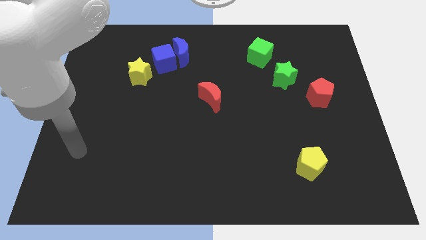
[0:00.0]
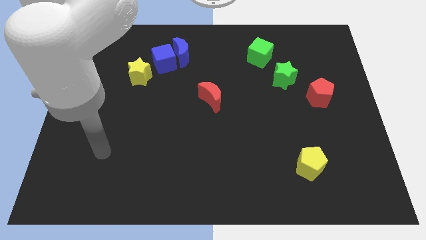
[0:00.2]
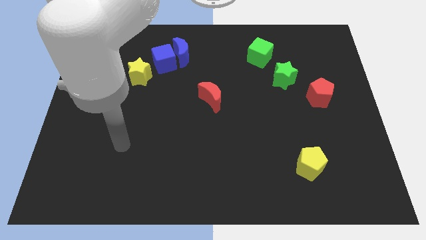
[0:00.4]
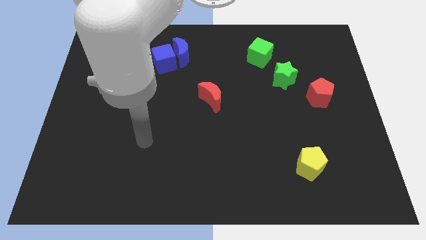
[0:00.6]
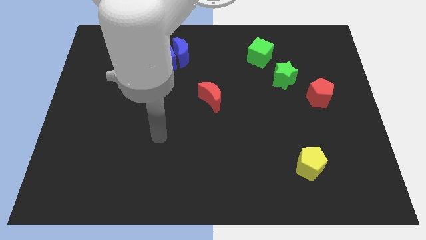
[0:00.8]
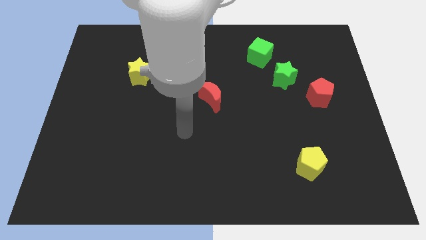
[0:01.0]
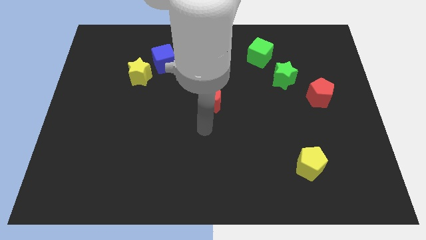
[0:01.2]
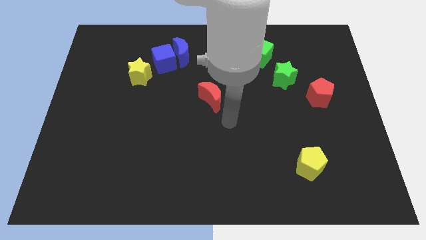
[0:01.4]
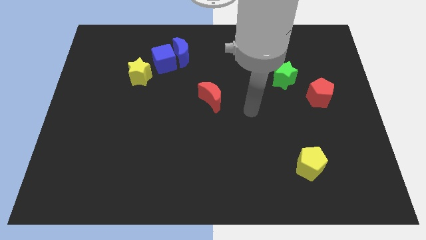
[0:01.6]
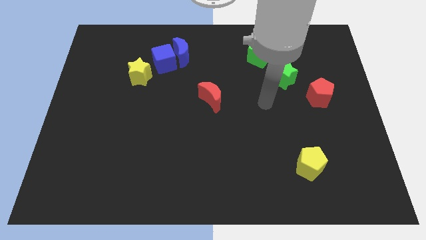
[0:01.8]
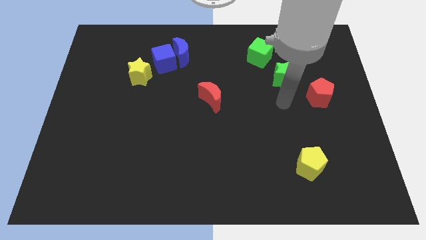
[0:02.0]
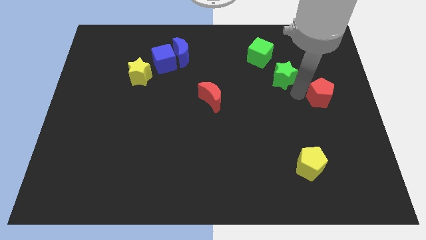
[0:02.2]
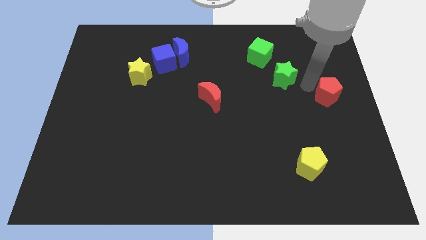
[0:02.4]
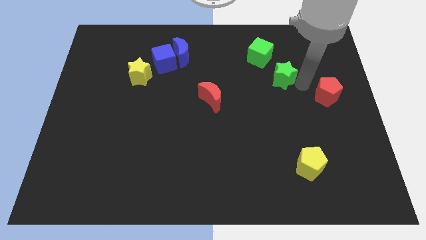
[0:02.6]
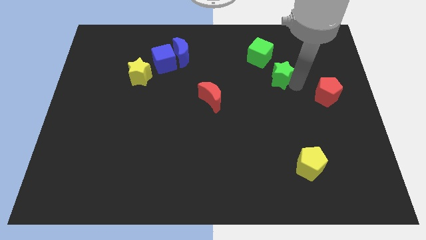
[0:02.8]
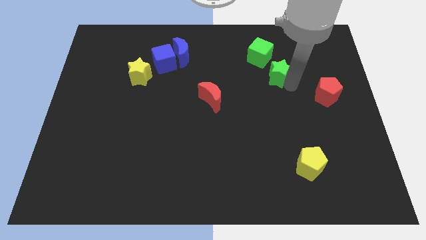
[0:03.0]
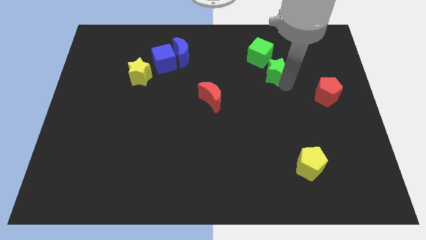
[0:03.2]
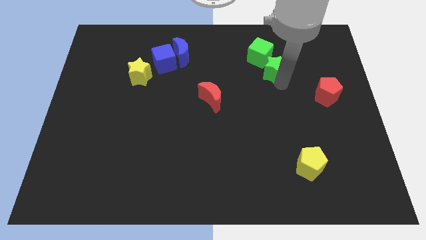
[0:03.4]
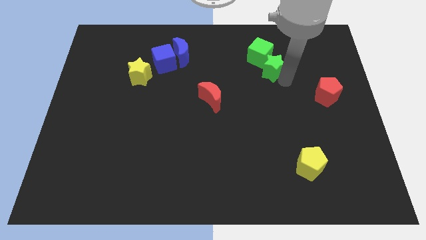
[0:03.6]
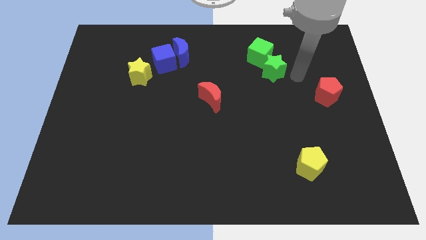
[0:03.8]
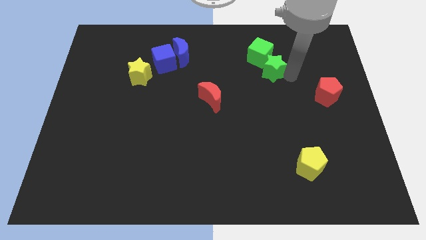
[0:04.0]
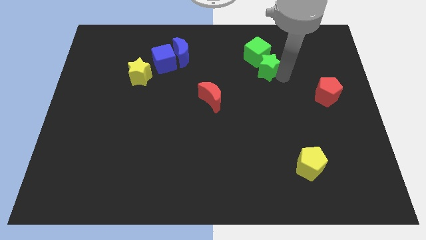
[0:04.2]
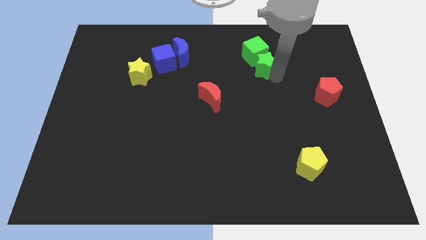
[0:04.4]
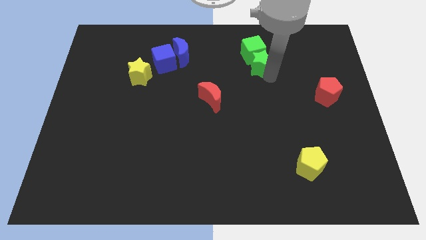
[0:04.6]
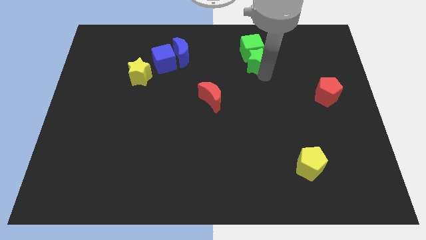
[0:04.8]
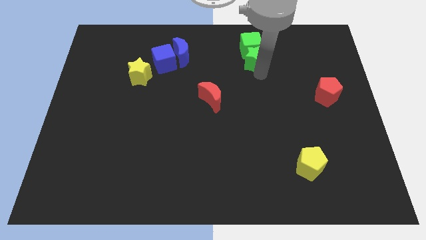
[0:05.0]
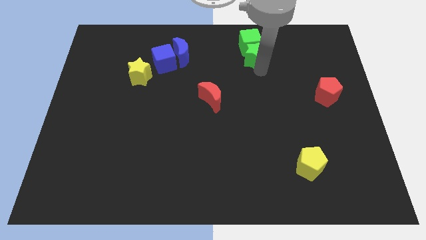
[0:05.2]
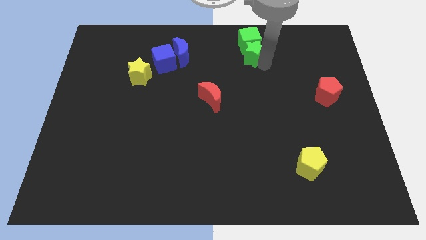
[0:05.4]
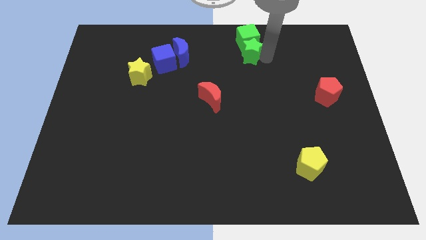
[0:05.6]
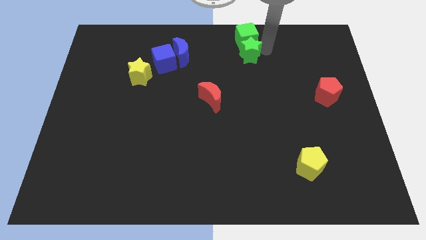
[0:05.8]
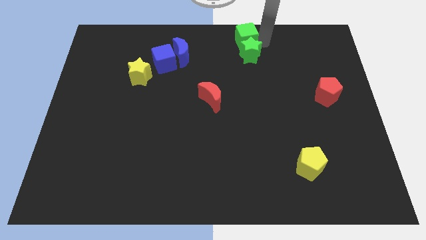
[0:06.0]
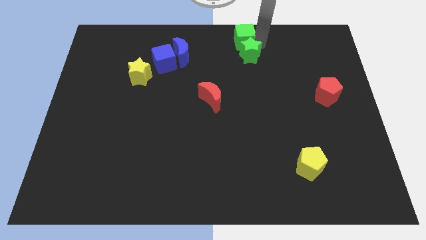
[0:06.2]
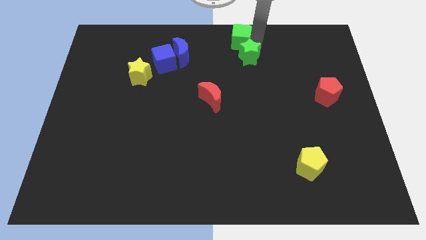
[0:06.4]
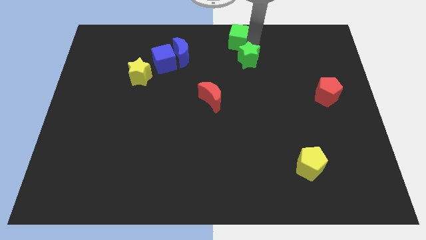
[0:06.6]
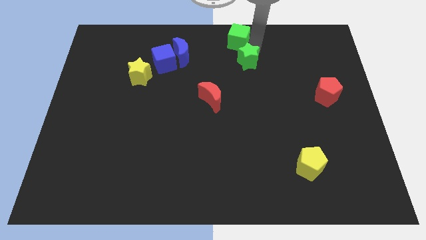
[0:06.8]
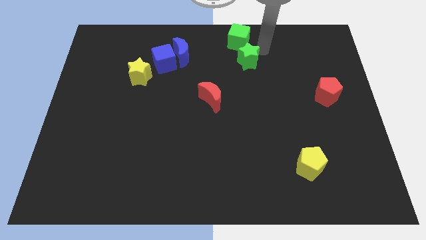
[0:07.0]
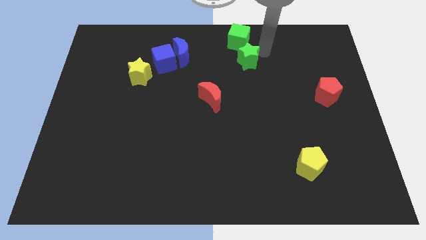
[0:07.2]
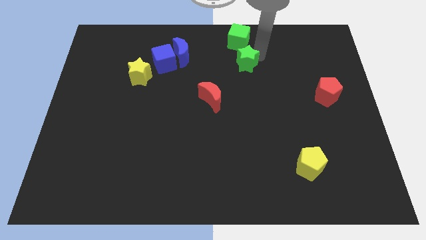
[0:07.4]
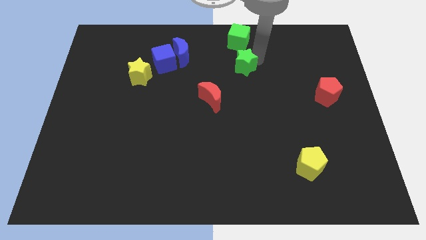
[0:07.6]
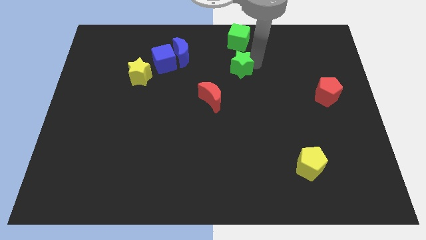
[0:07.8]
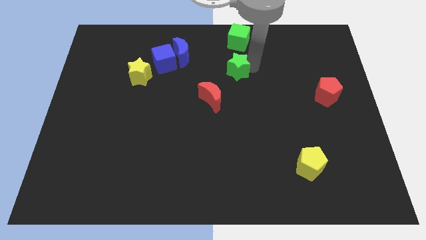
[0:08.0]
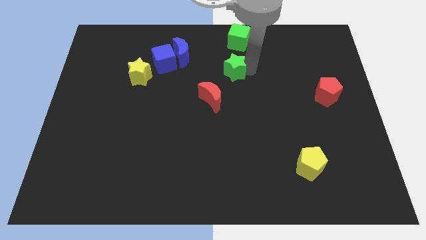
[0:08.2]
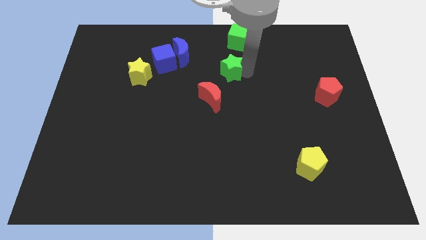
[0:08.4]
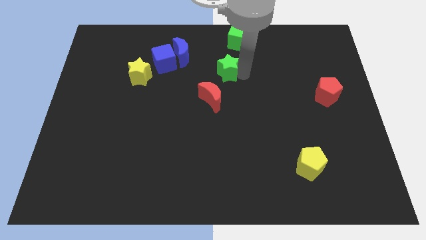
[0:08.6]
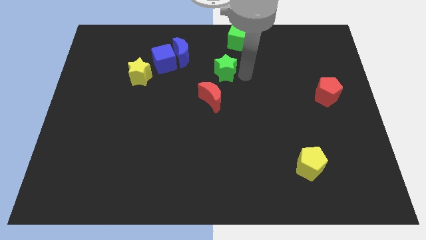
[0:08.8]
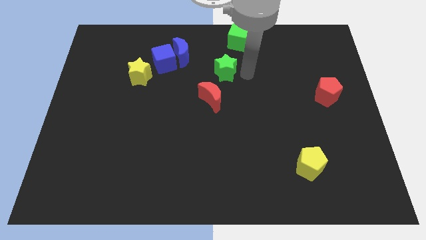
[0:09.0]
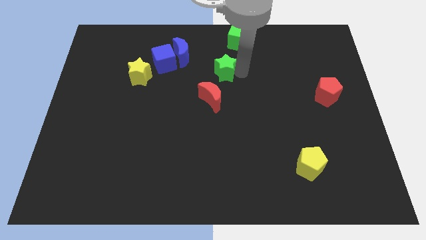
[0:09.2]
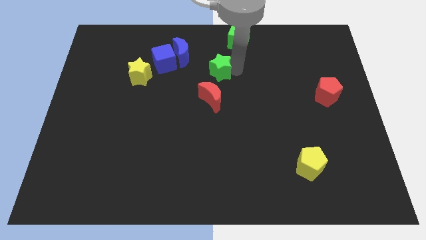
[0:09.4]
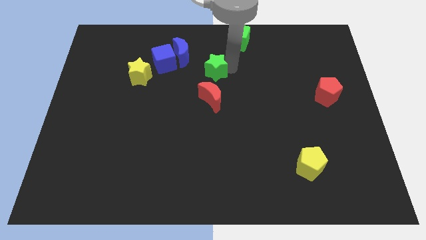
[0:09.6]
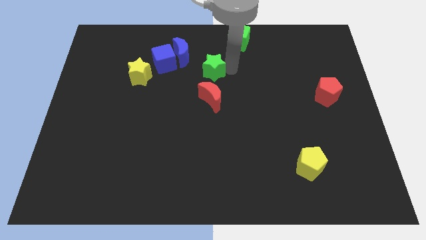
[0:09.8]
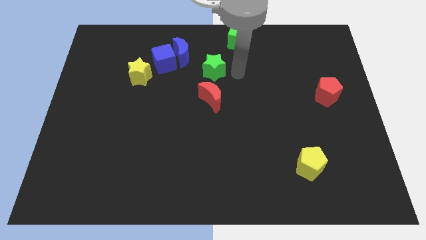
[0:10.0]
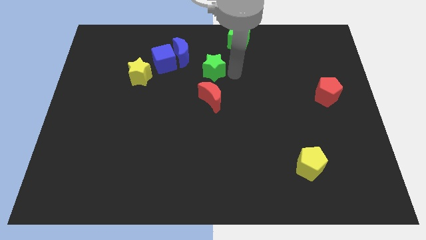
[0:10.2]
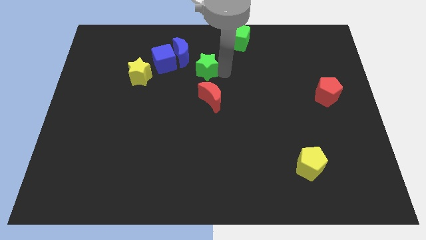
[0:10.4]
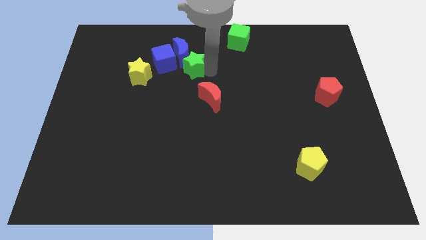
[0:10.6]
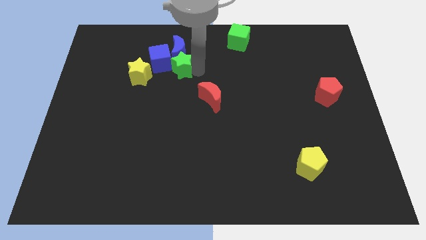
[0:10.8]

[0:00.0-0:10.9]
slide the green star to the blue cube

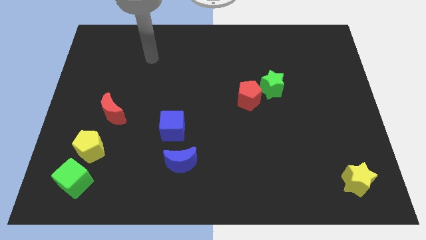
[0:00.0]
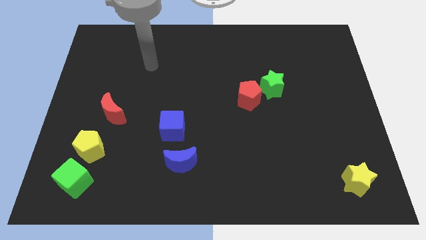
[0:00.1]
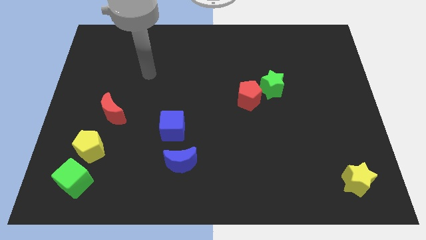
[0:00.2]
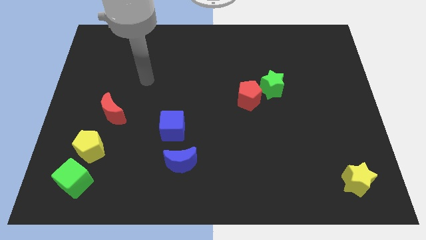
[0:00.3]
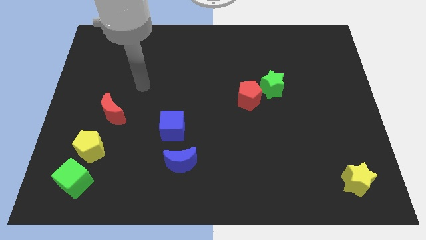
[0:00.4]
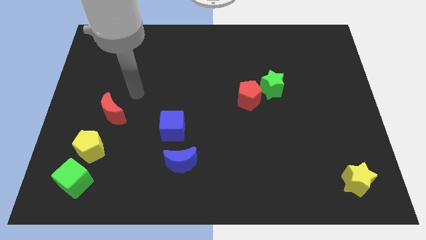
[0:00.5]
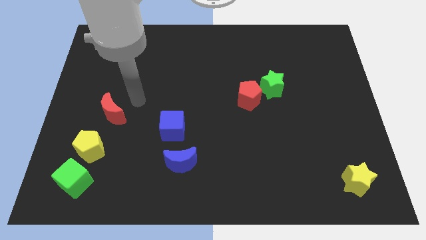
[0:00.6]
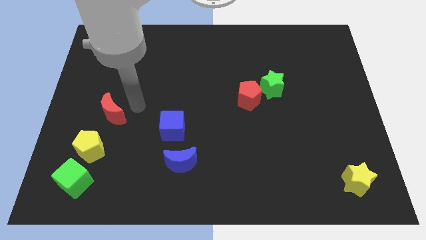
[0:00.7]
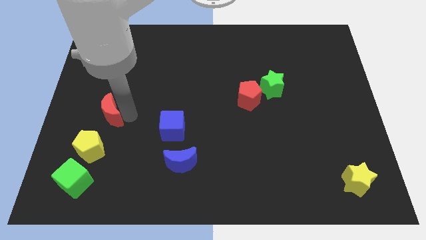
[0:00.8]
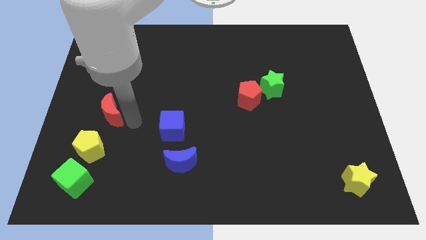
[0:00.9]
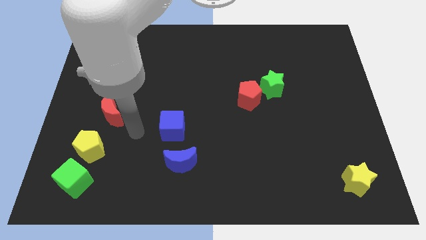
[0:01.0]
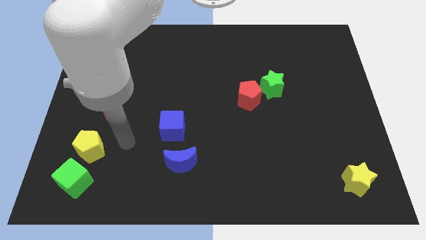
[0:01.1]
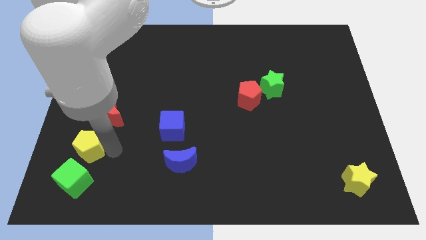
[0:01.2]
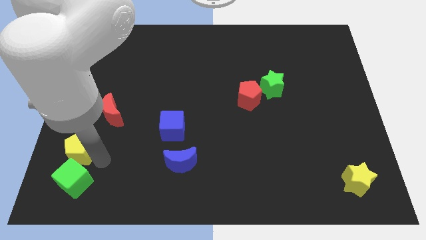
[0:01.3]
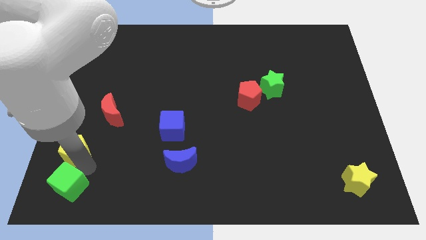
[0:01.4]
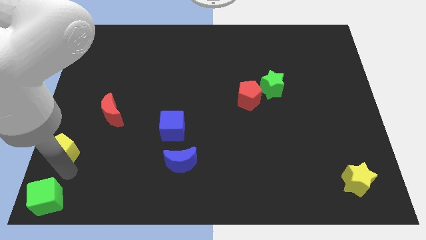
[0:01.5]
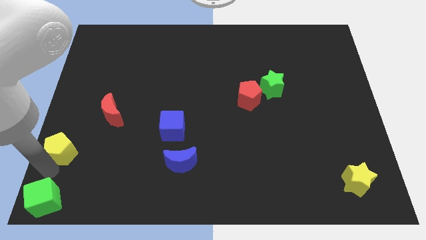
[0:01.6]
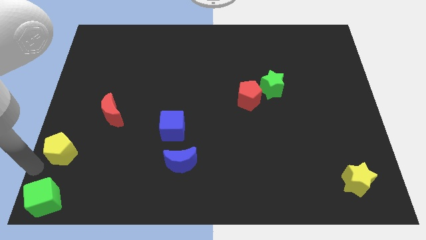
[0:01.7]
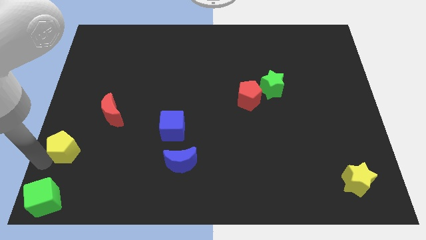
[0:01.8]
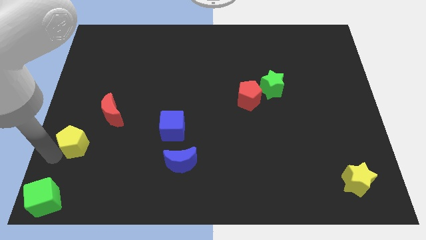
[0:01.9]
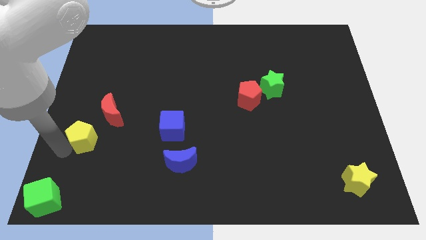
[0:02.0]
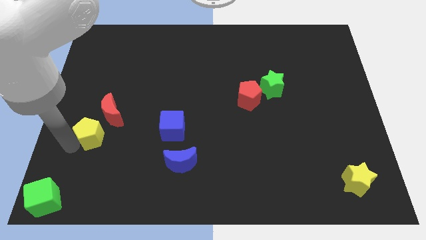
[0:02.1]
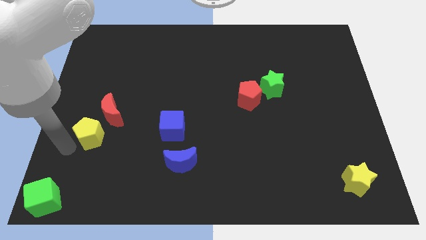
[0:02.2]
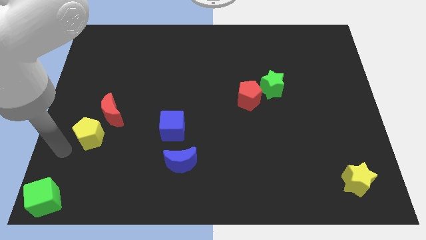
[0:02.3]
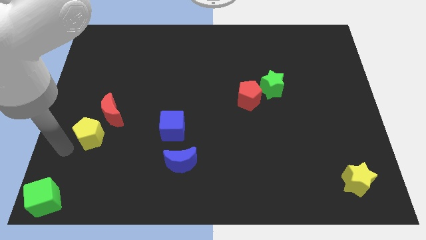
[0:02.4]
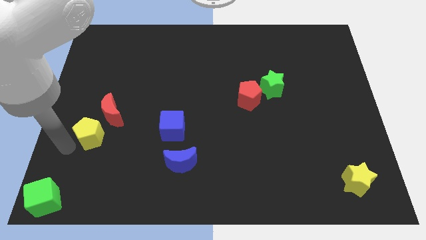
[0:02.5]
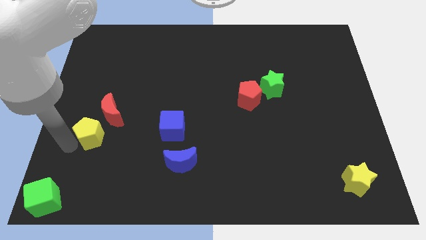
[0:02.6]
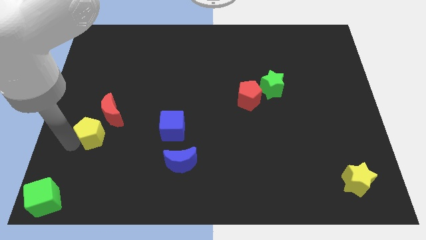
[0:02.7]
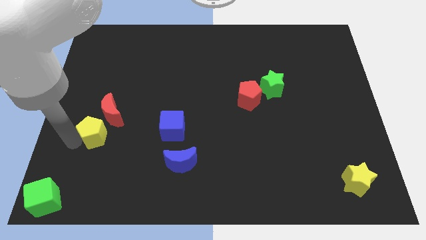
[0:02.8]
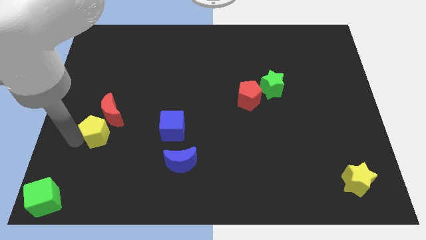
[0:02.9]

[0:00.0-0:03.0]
slide the yellow pentagon close to the red moon
